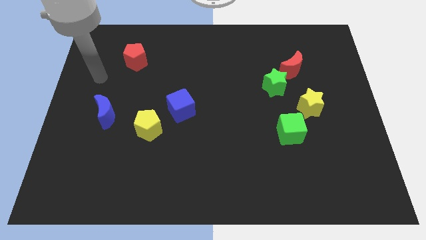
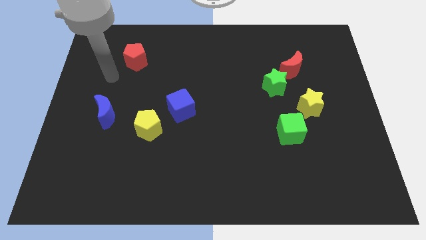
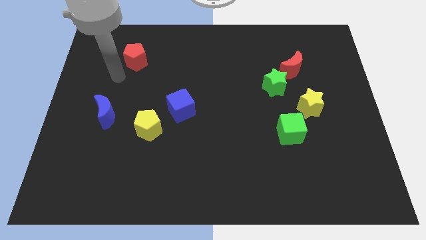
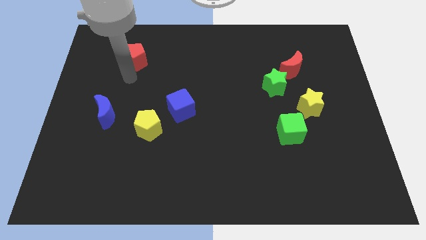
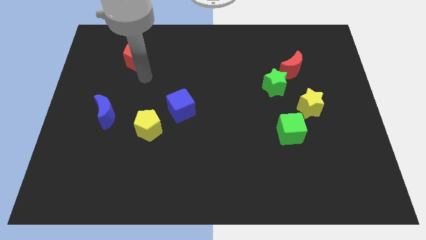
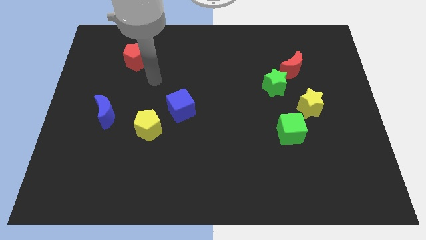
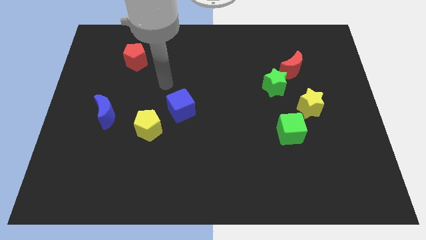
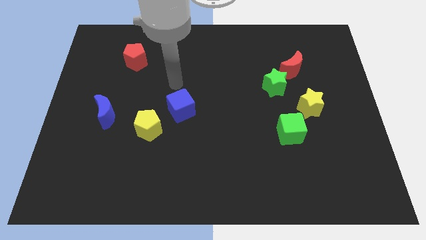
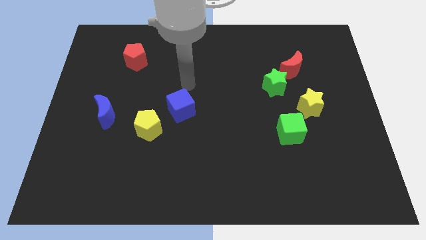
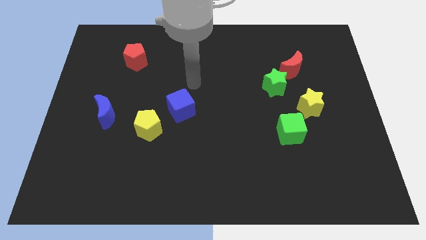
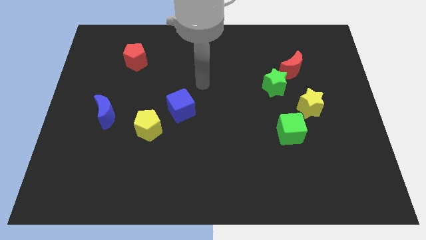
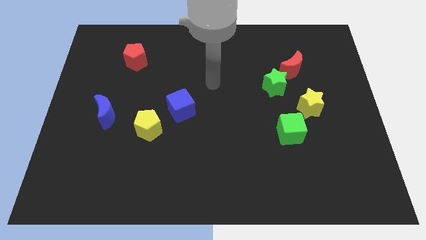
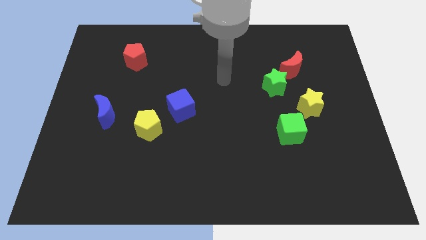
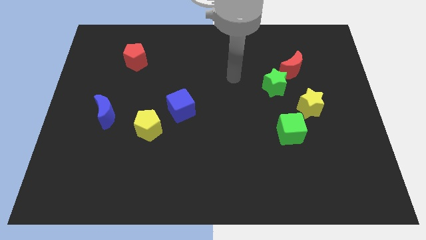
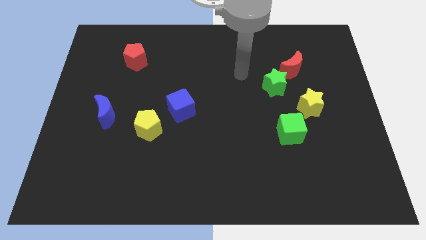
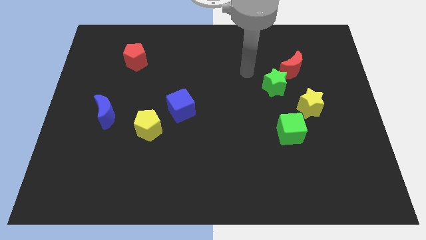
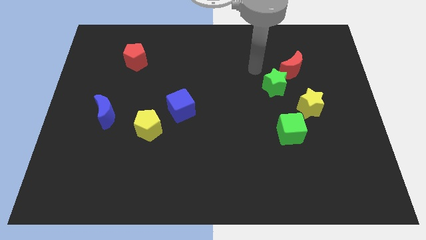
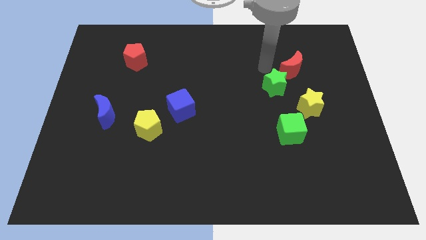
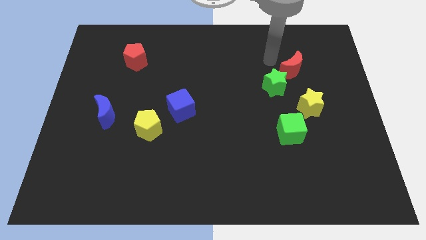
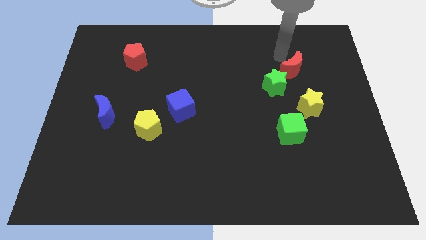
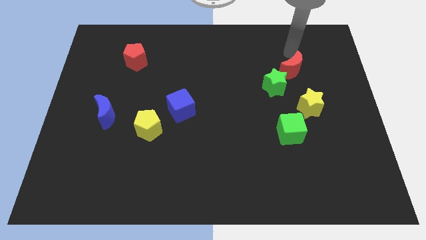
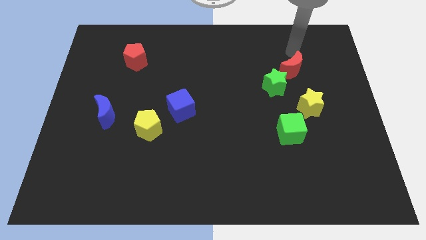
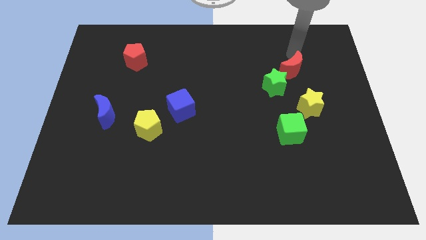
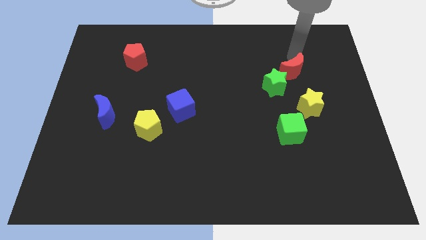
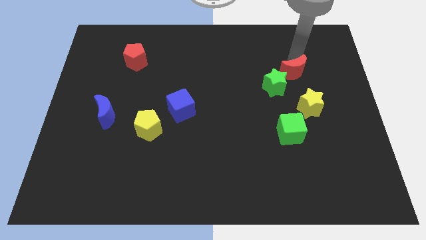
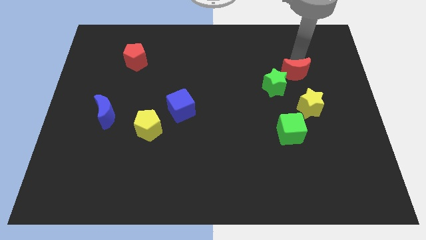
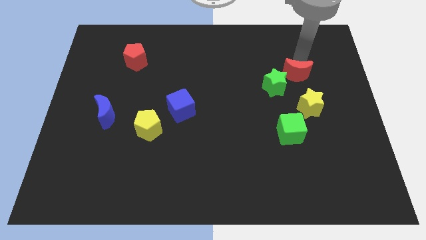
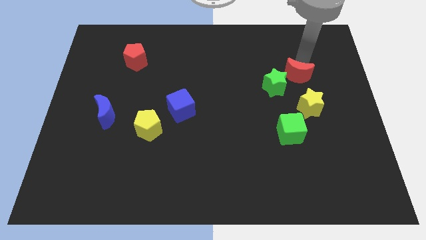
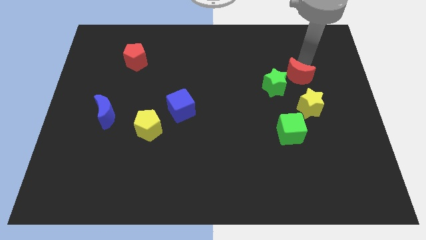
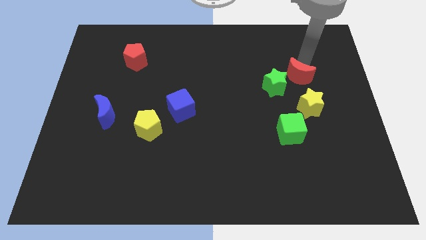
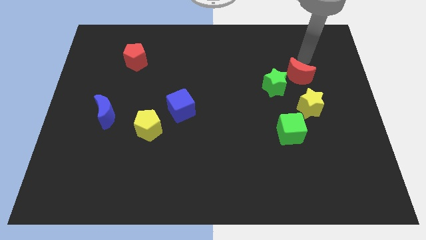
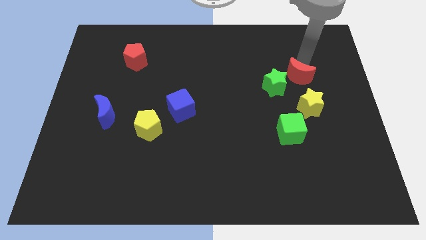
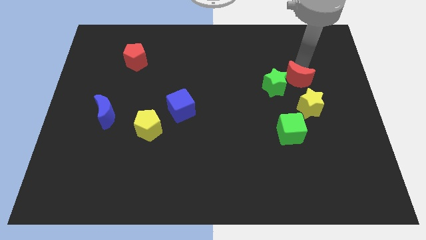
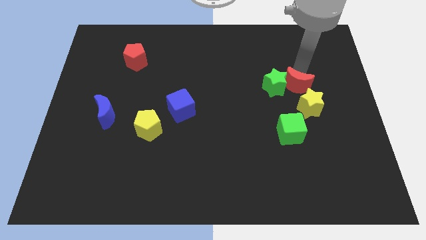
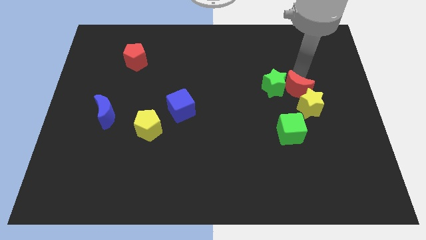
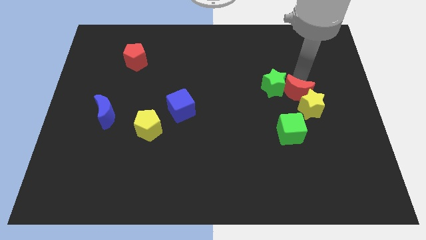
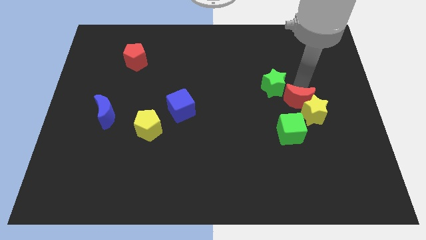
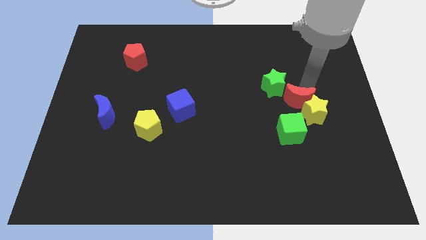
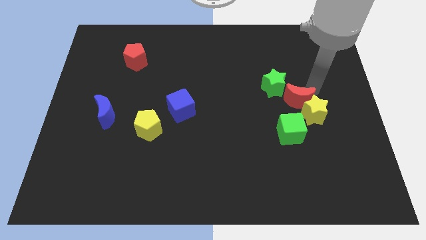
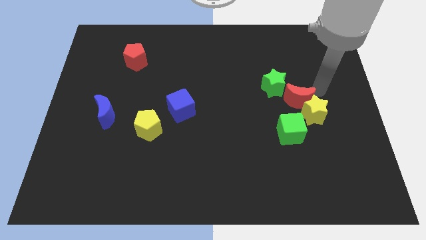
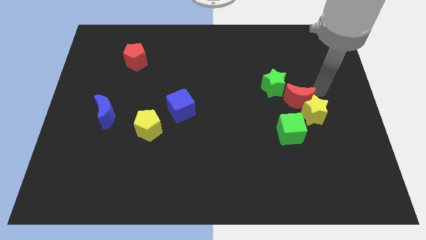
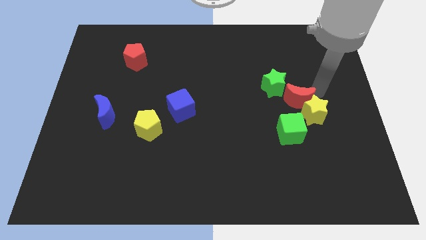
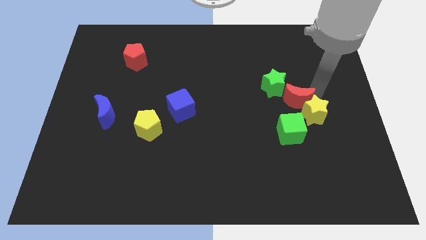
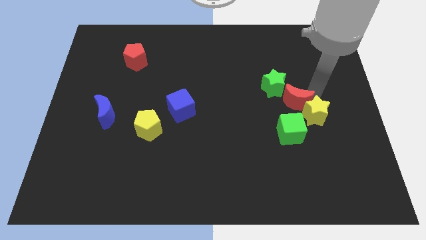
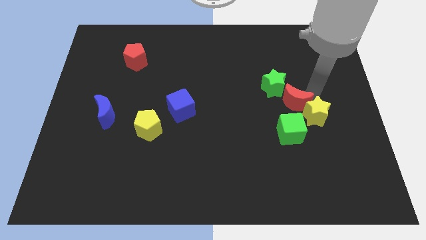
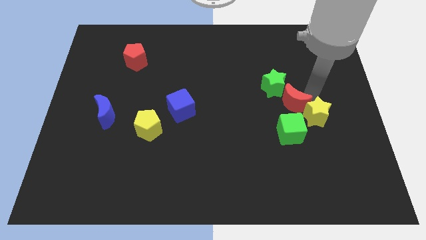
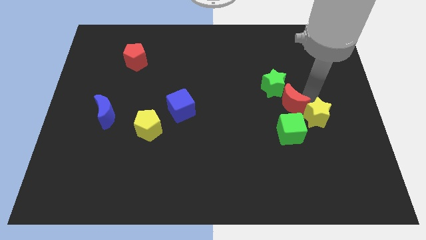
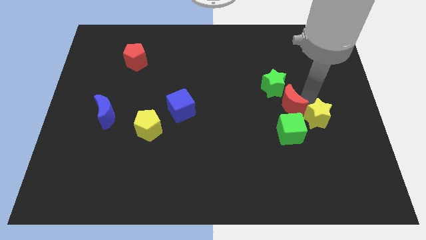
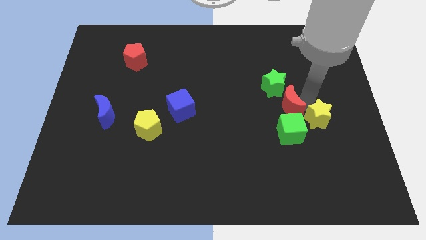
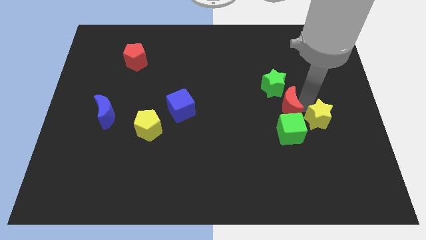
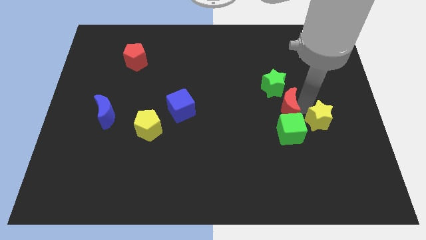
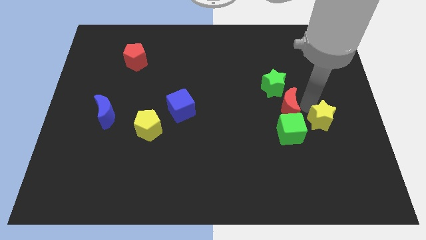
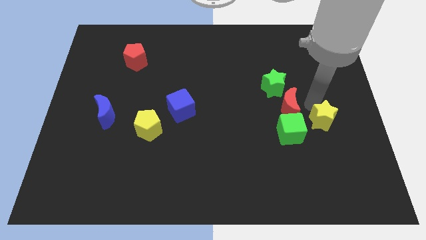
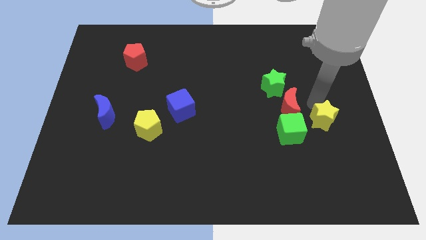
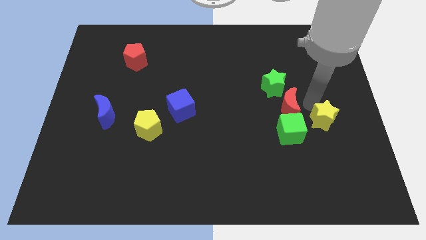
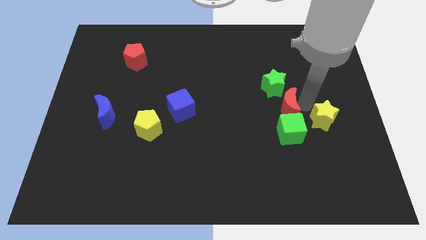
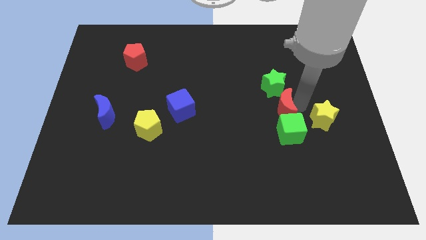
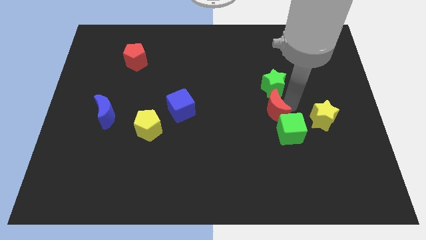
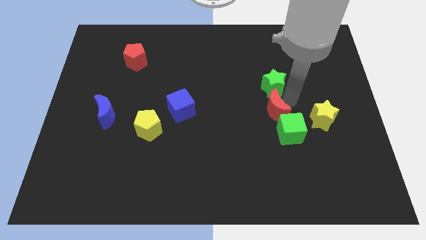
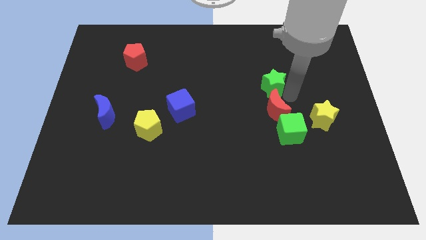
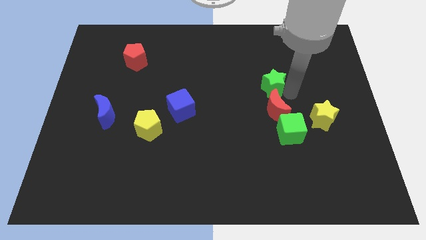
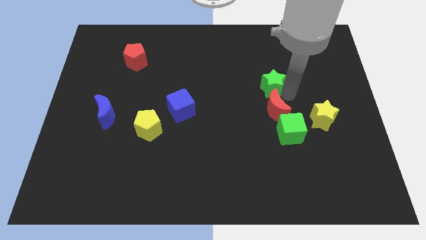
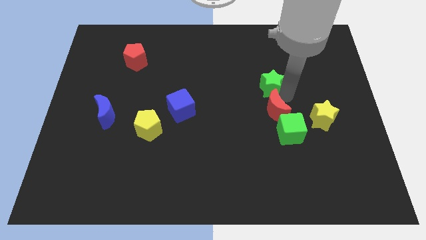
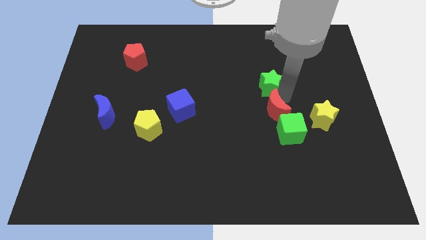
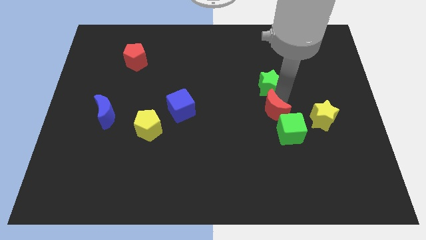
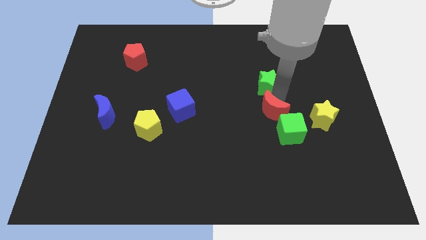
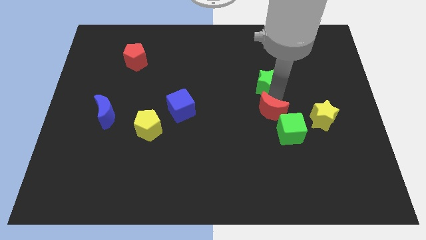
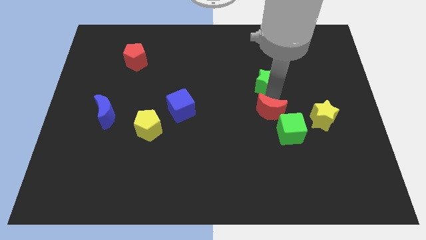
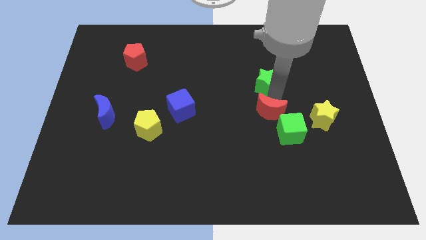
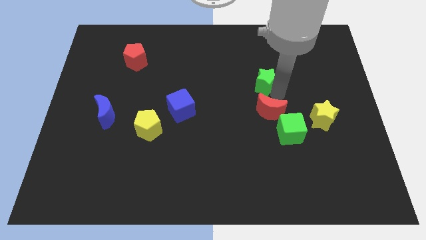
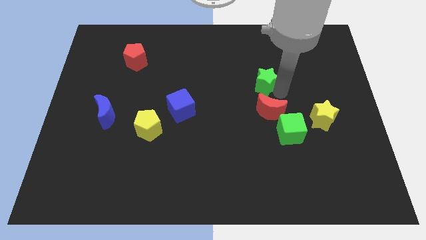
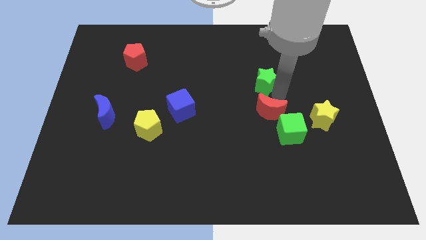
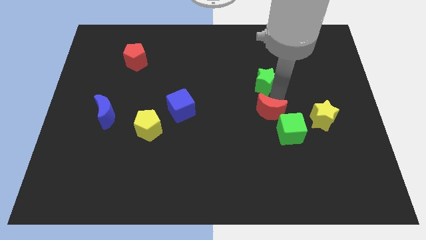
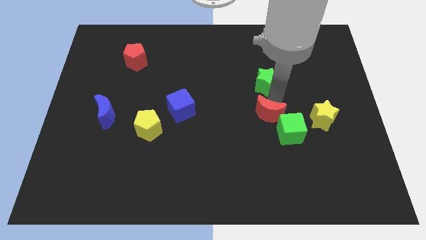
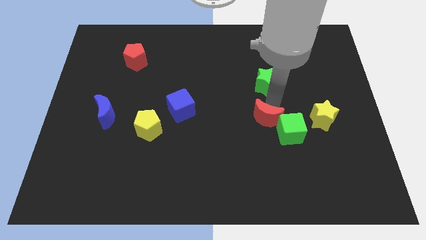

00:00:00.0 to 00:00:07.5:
slide the red moon to the left of the green cube
